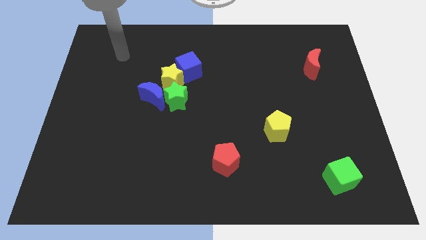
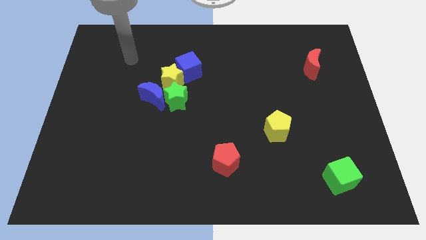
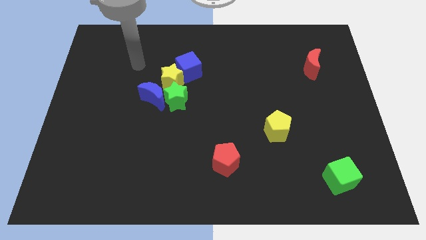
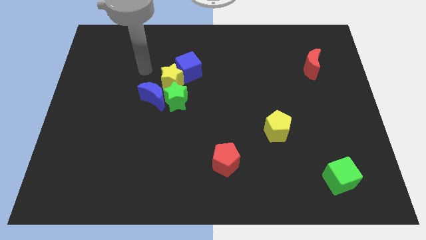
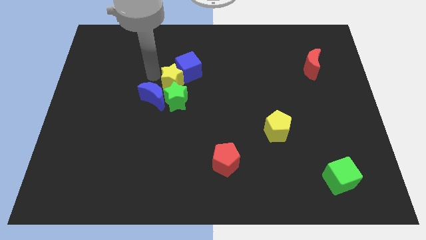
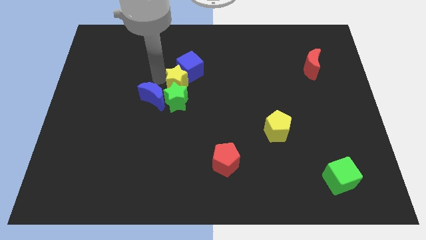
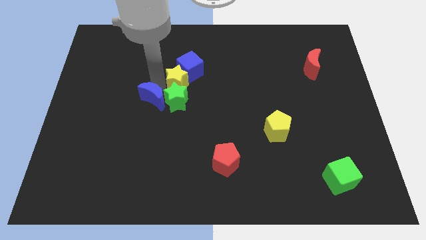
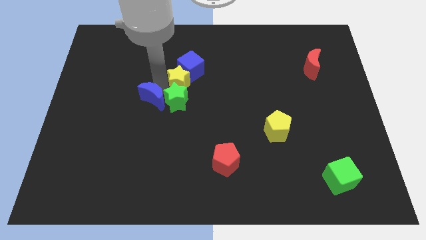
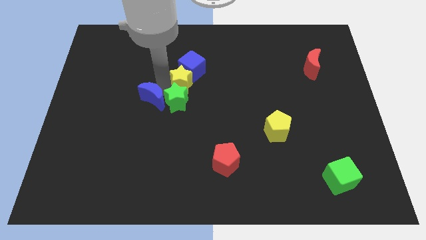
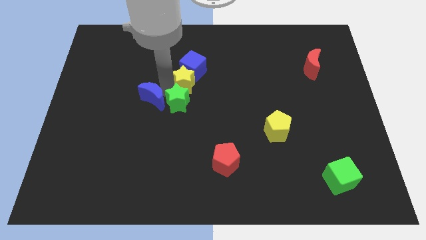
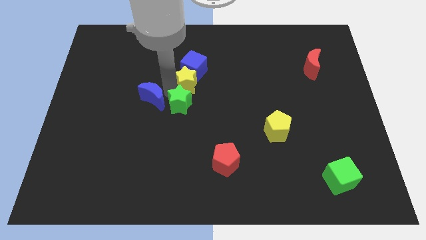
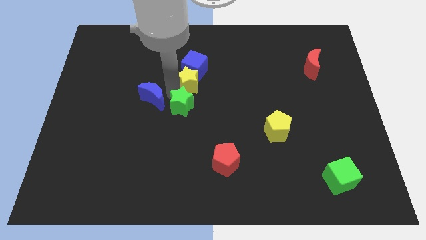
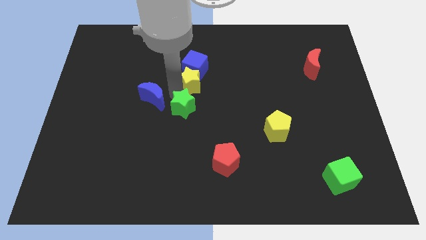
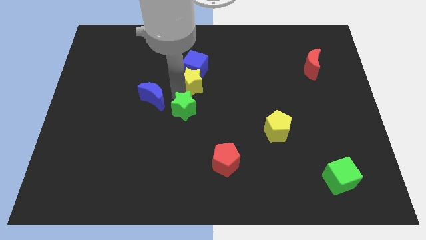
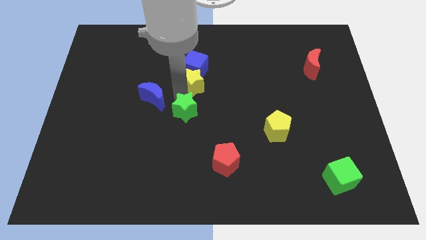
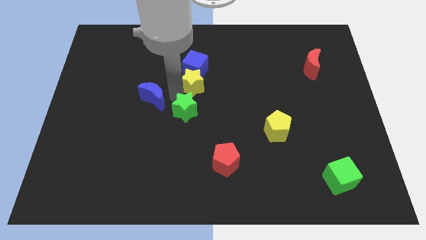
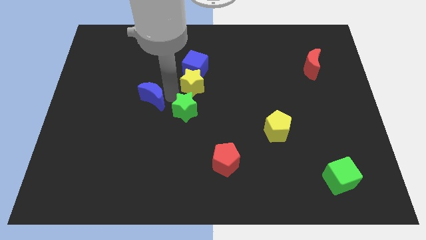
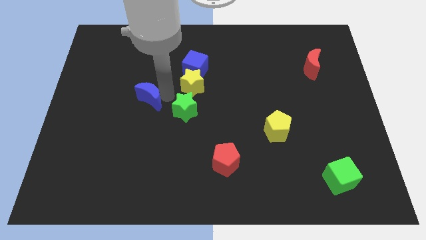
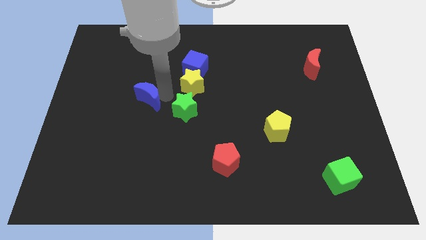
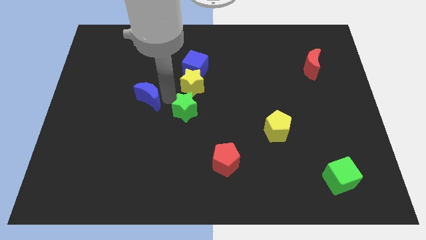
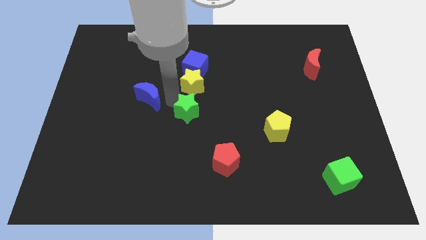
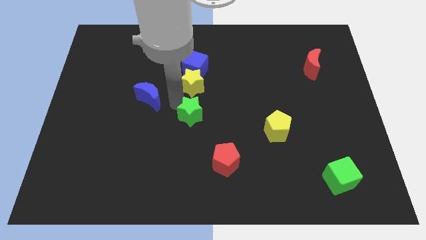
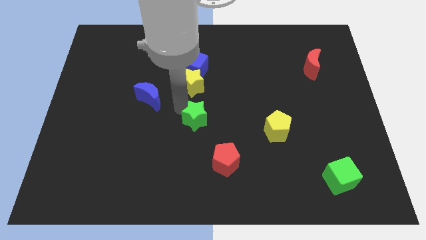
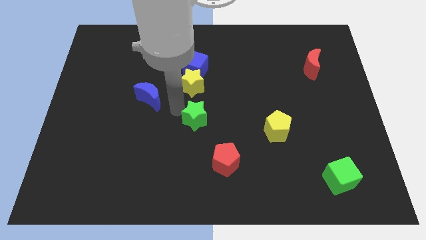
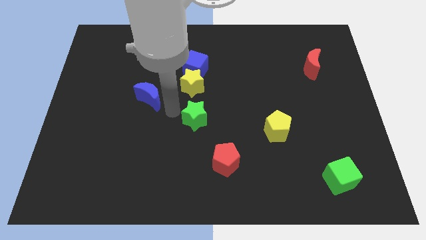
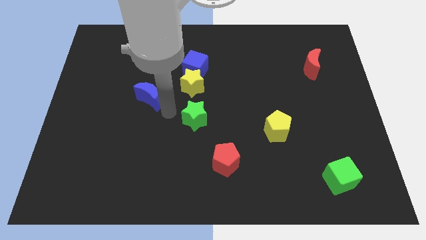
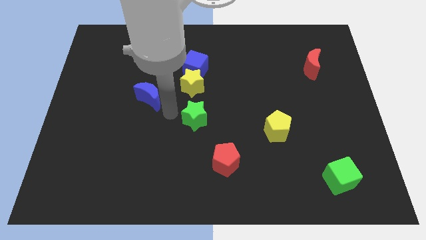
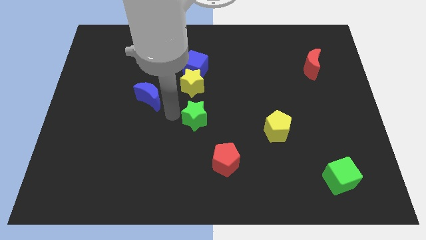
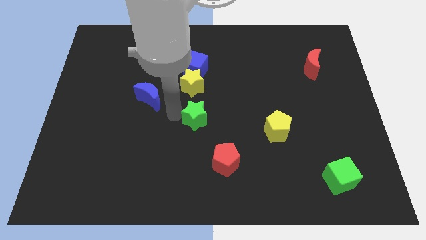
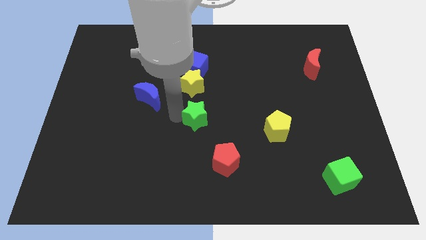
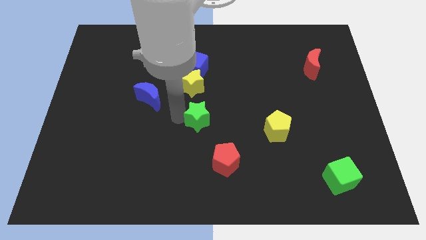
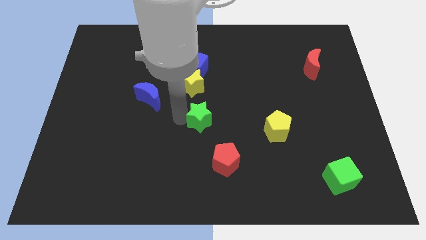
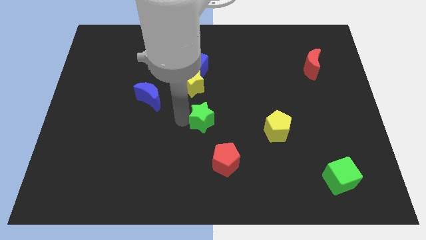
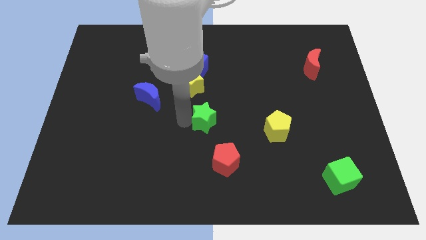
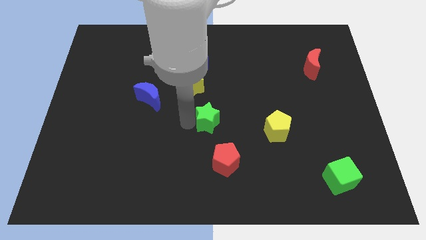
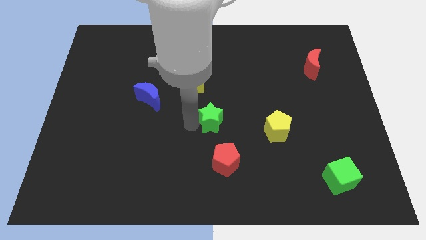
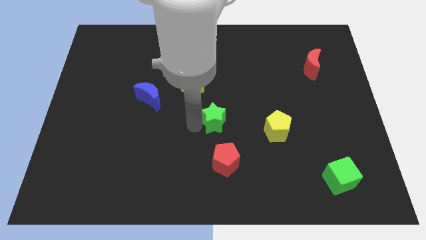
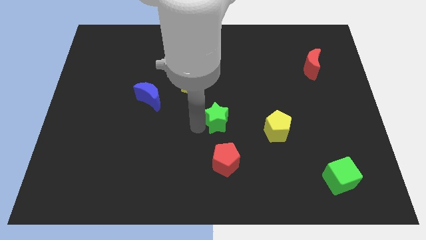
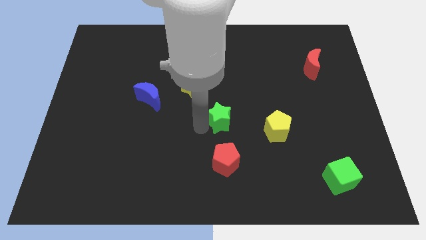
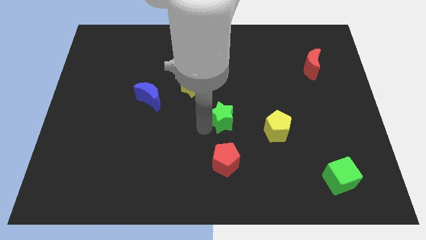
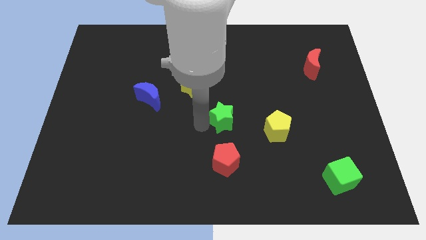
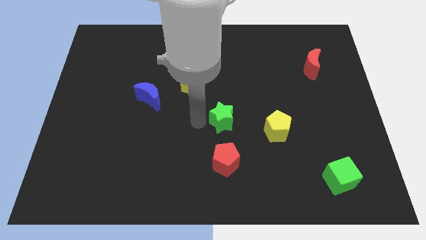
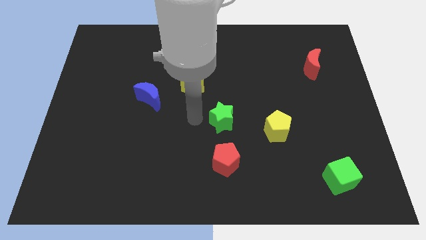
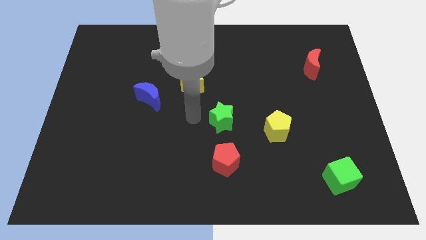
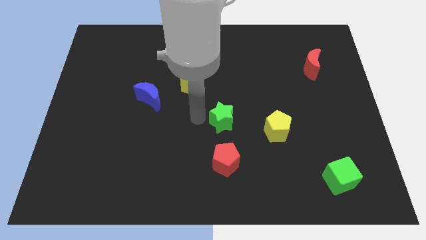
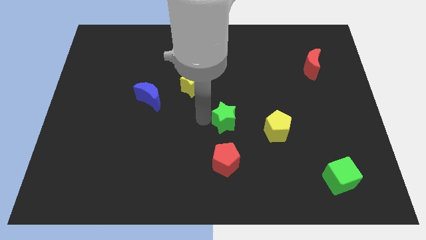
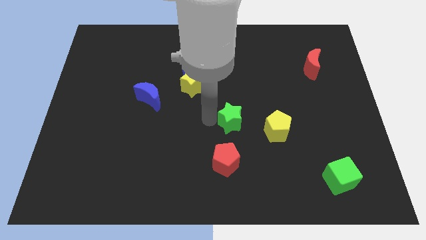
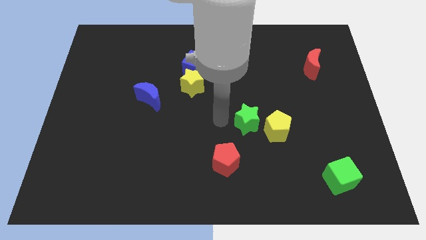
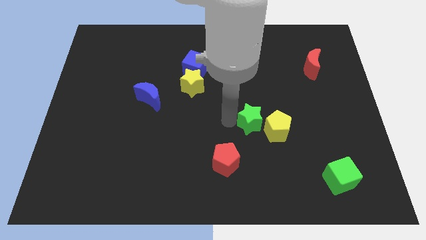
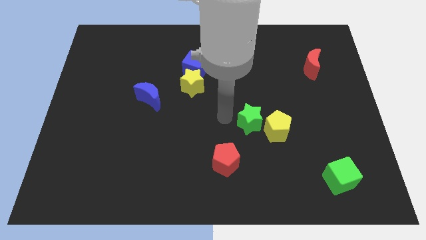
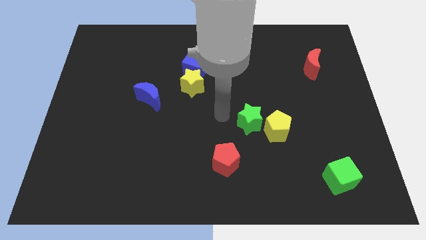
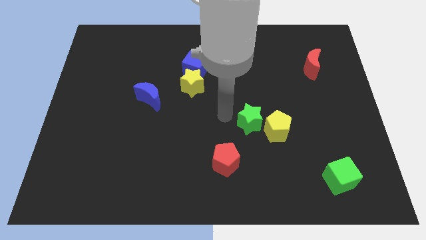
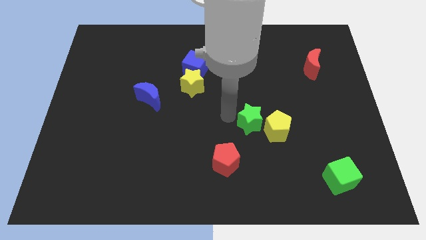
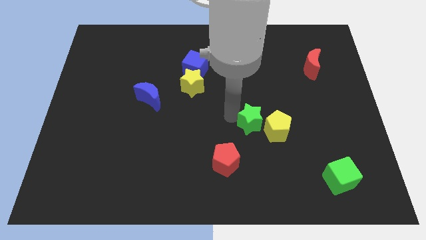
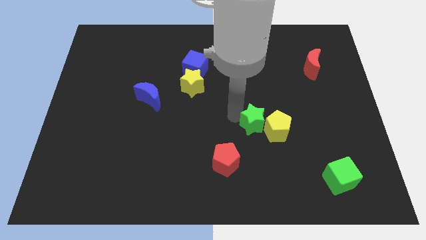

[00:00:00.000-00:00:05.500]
slide the green star to the yellow pentagon
